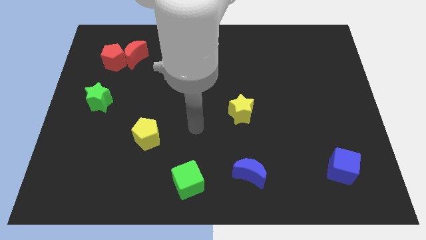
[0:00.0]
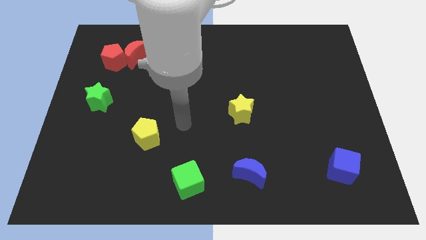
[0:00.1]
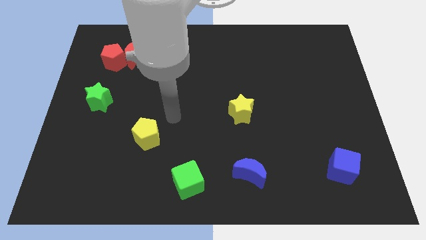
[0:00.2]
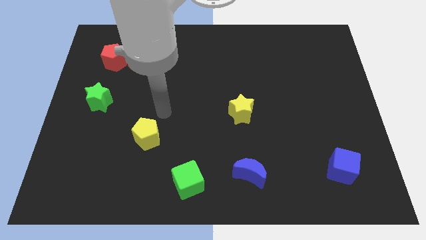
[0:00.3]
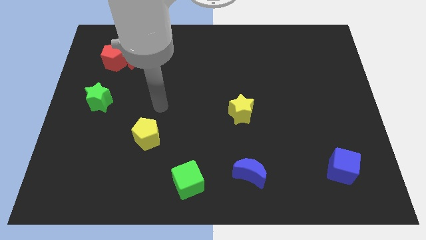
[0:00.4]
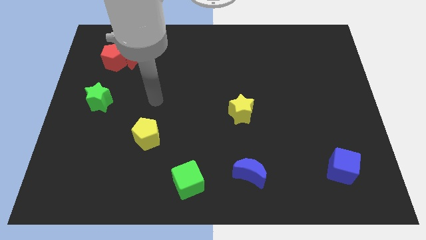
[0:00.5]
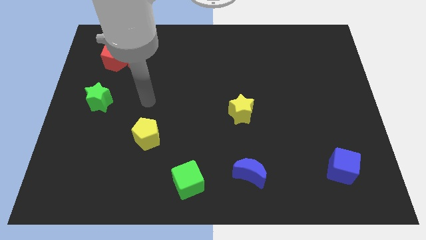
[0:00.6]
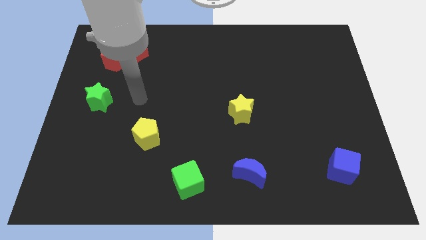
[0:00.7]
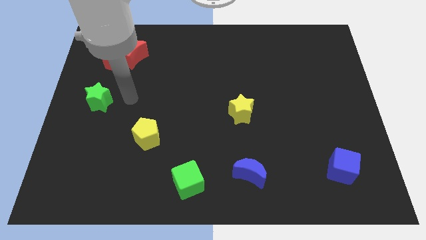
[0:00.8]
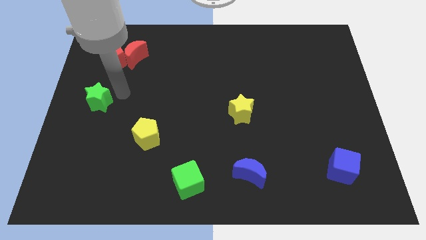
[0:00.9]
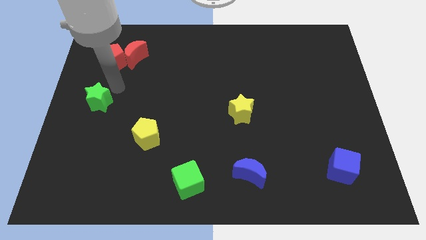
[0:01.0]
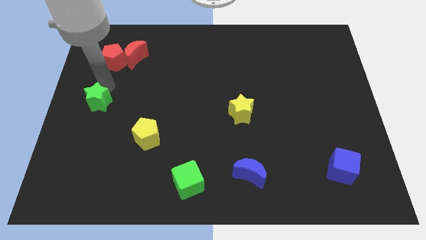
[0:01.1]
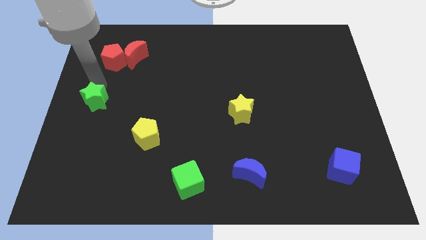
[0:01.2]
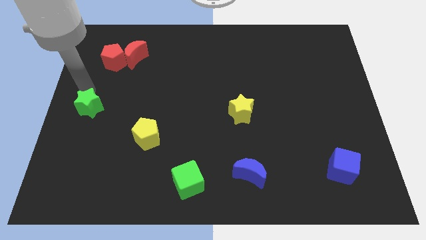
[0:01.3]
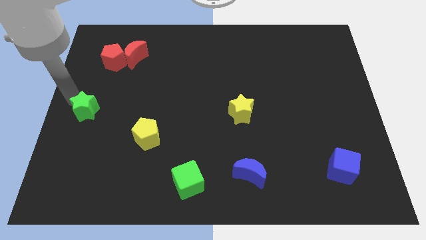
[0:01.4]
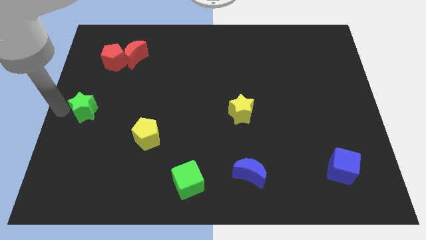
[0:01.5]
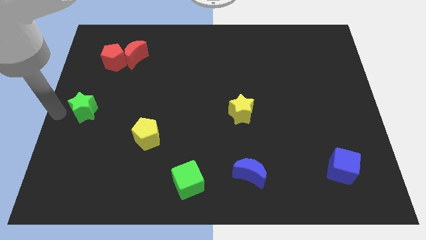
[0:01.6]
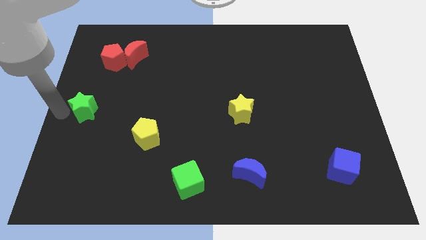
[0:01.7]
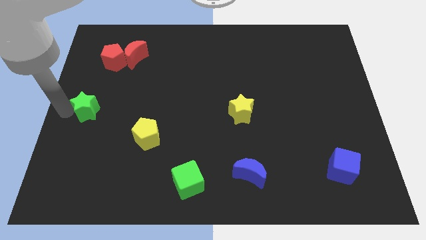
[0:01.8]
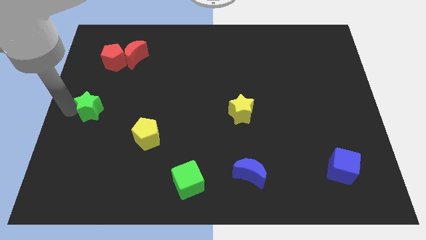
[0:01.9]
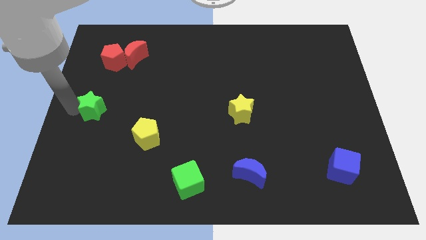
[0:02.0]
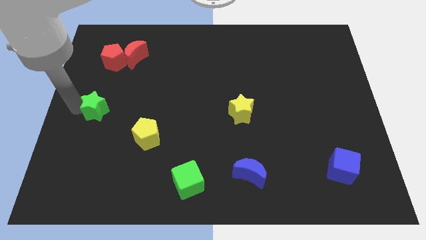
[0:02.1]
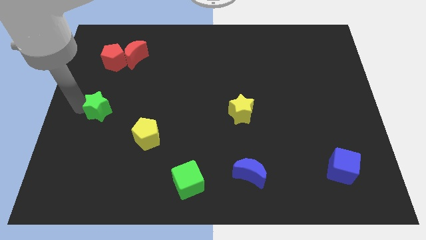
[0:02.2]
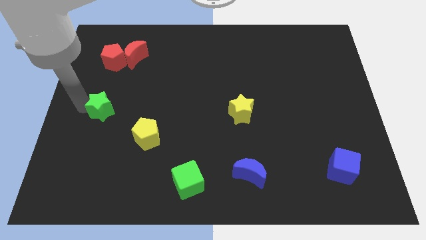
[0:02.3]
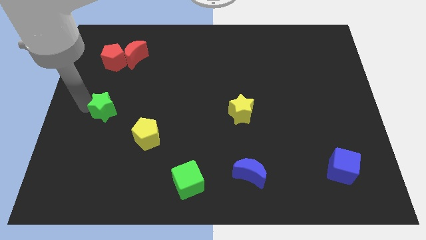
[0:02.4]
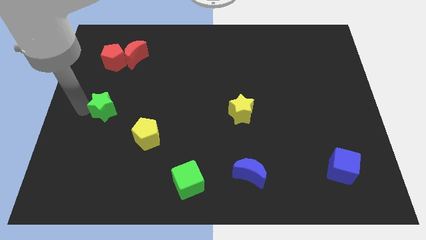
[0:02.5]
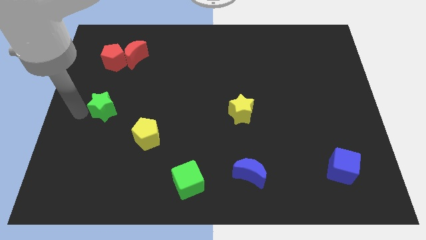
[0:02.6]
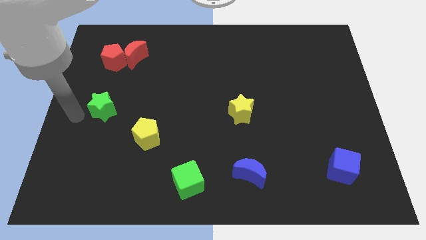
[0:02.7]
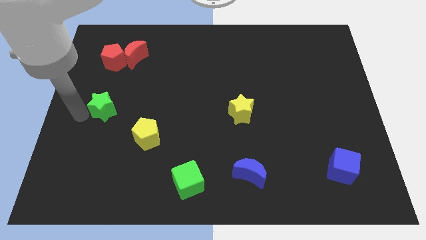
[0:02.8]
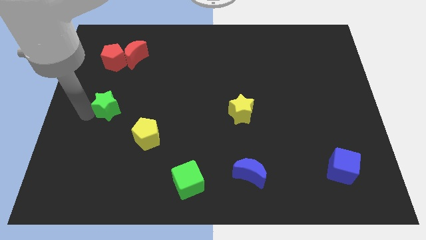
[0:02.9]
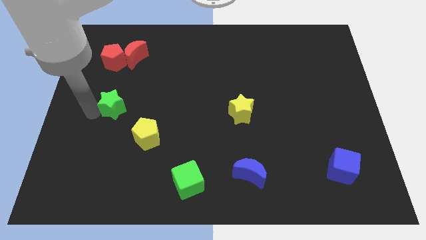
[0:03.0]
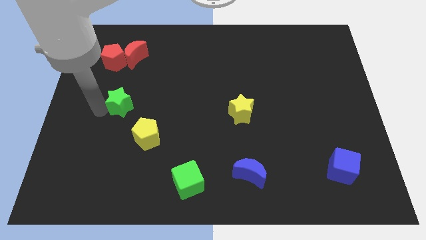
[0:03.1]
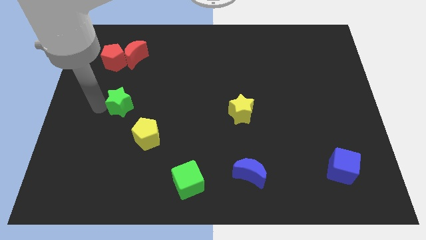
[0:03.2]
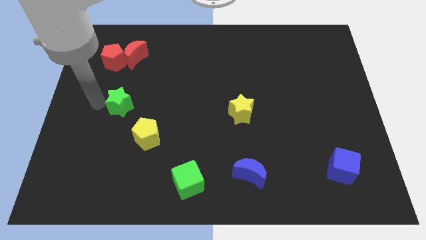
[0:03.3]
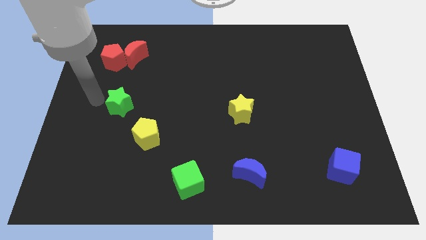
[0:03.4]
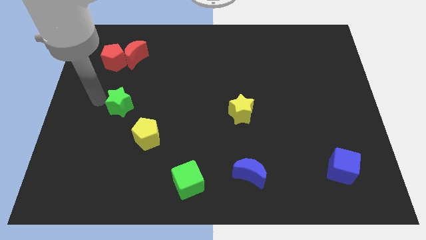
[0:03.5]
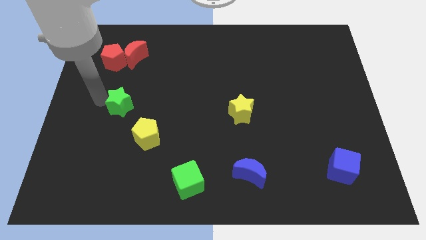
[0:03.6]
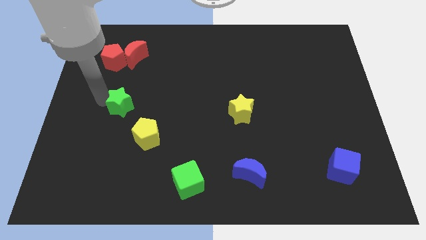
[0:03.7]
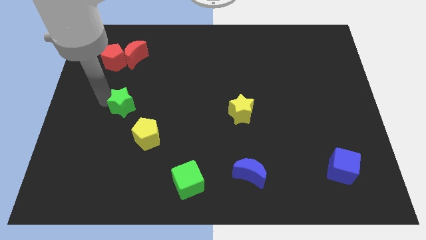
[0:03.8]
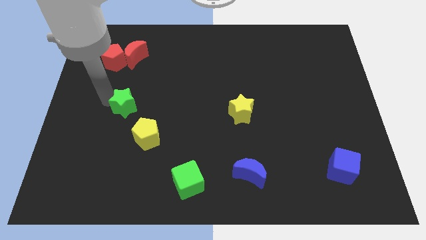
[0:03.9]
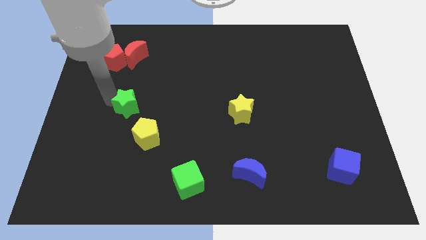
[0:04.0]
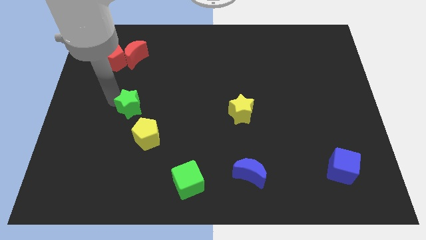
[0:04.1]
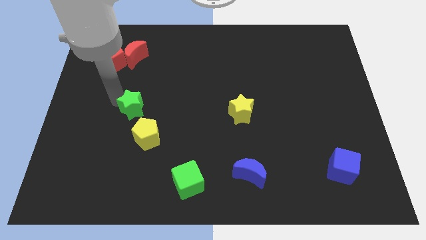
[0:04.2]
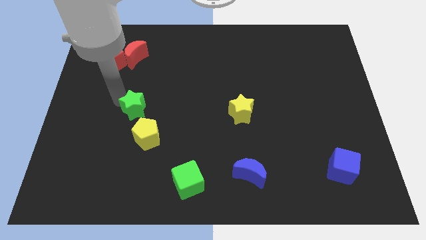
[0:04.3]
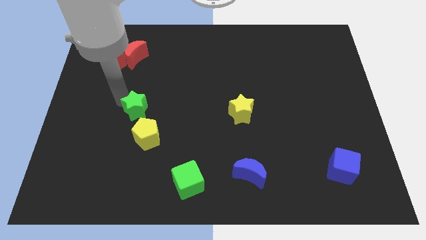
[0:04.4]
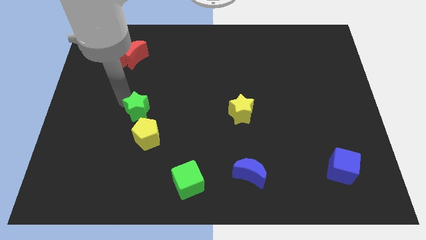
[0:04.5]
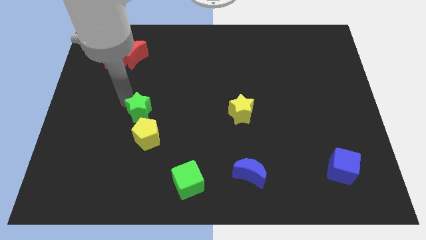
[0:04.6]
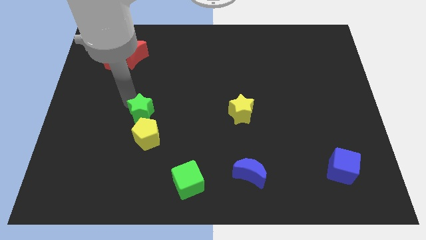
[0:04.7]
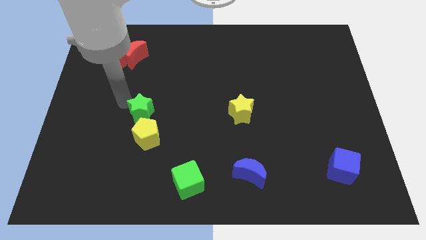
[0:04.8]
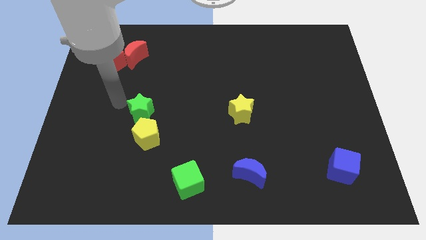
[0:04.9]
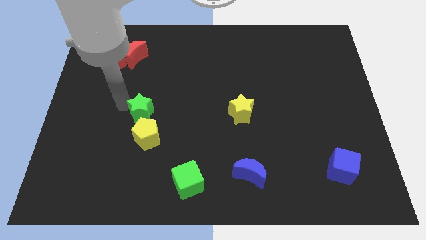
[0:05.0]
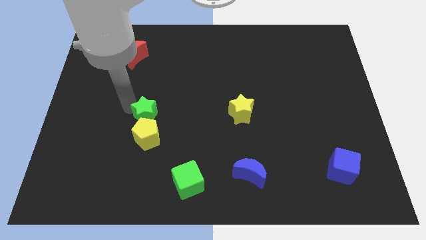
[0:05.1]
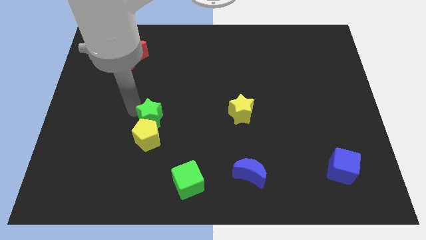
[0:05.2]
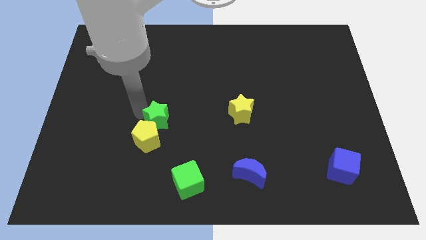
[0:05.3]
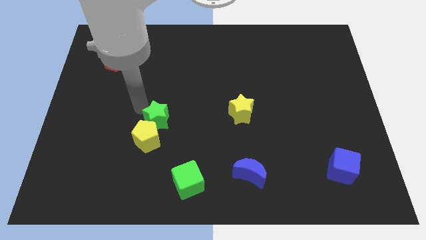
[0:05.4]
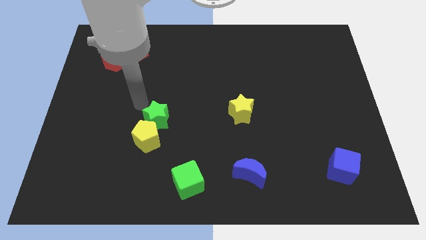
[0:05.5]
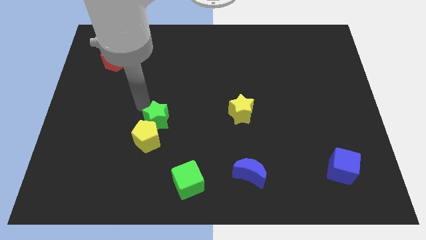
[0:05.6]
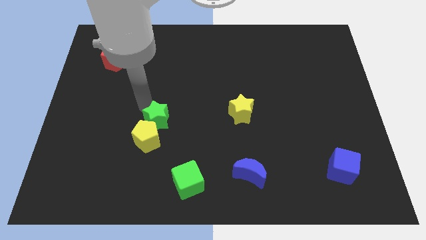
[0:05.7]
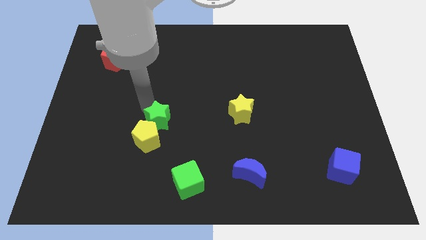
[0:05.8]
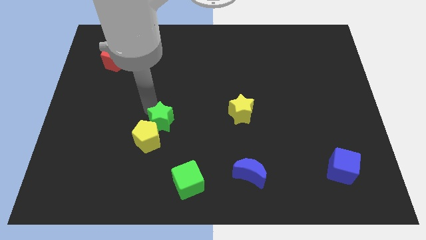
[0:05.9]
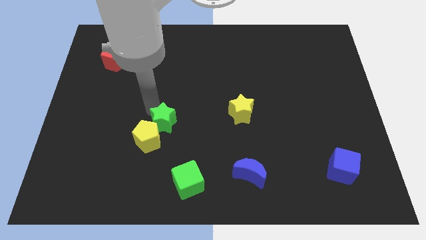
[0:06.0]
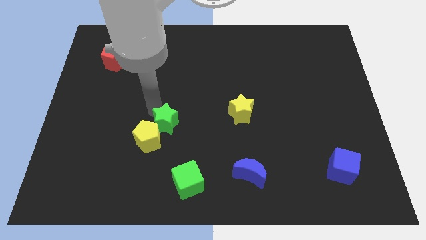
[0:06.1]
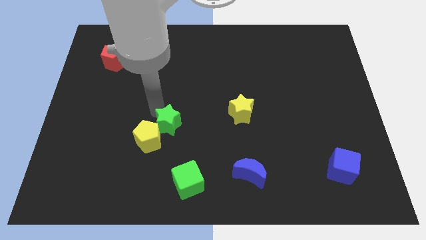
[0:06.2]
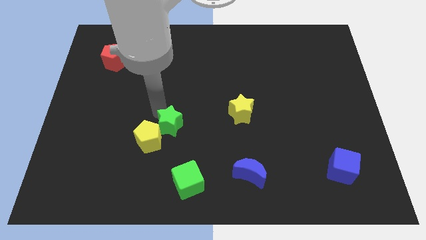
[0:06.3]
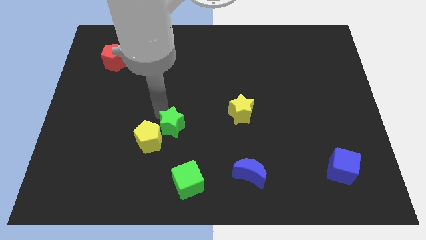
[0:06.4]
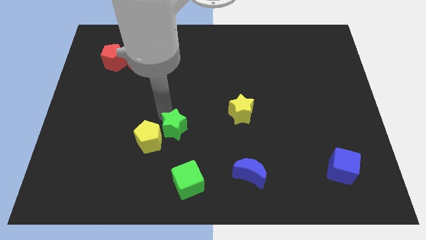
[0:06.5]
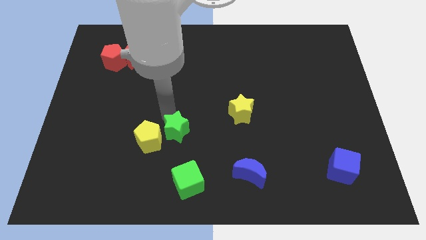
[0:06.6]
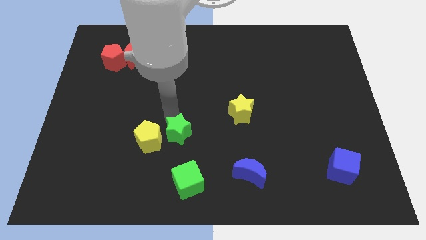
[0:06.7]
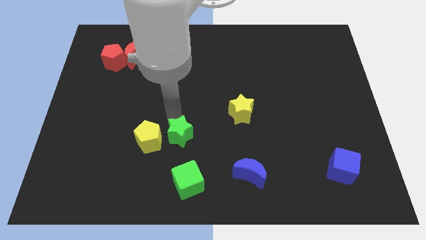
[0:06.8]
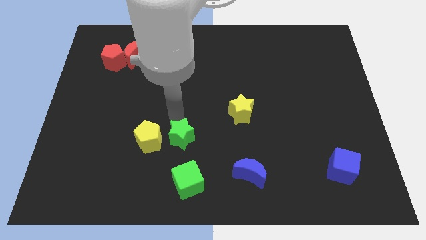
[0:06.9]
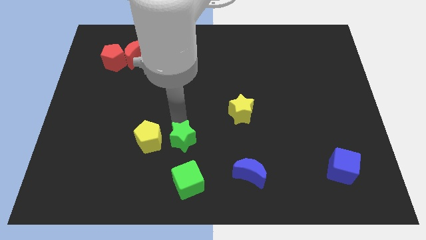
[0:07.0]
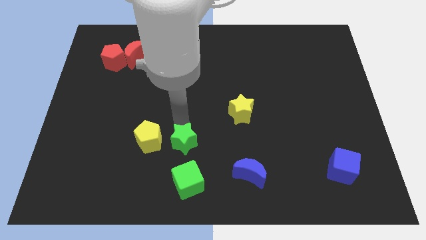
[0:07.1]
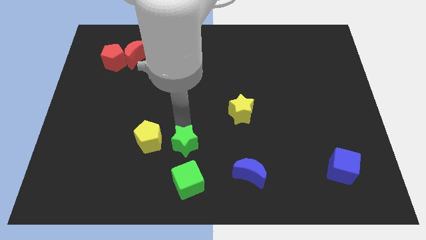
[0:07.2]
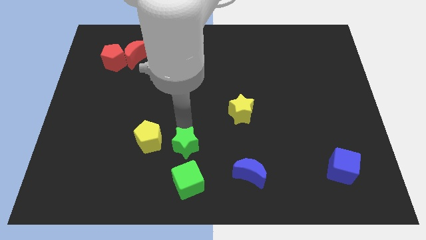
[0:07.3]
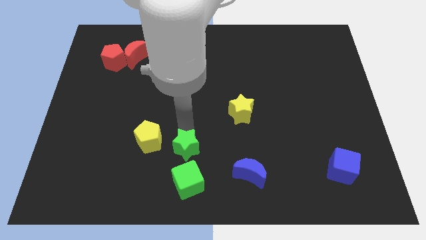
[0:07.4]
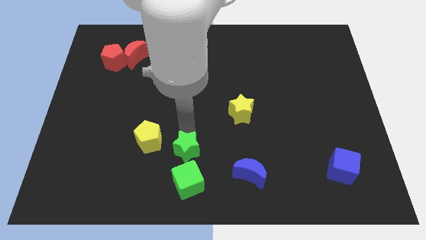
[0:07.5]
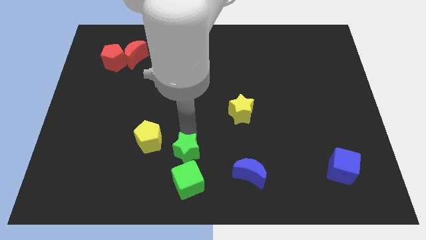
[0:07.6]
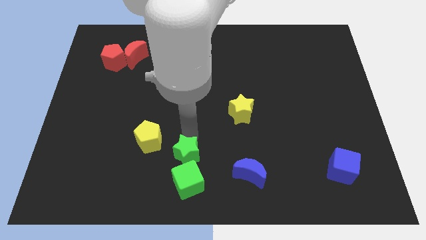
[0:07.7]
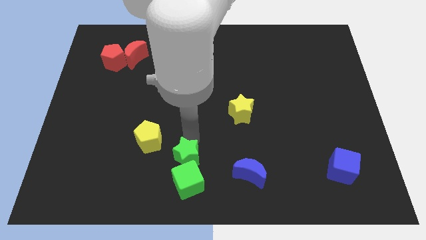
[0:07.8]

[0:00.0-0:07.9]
move the green star to the green cube
